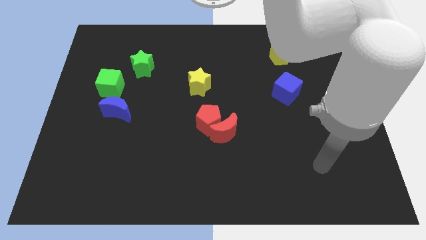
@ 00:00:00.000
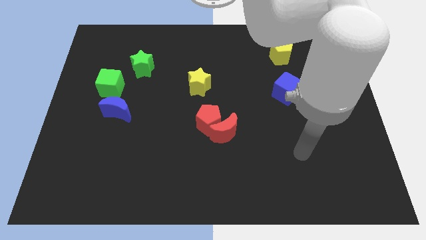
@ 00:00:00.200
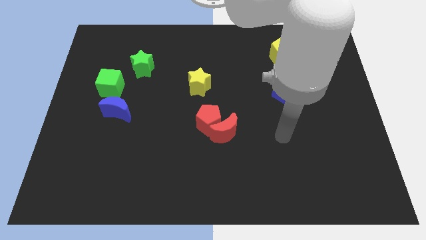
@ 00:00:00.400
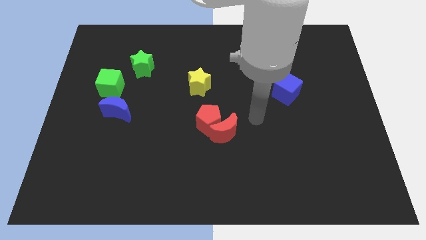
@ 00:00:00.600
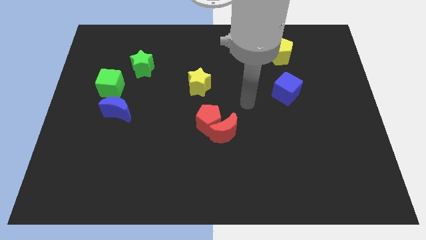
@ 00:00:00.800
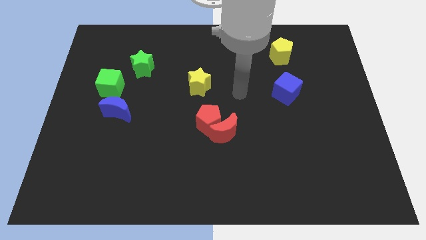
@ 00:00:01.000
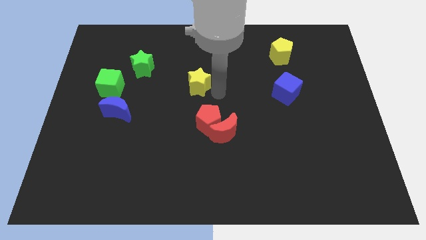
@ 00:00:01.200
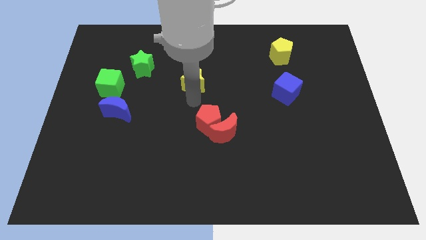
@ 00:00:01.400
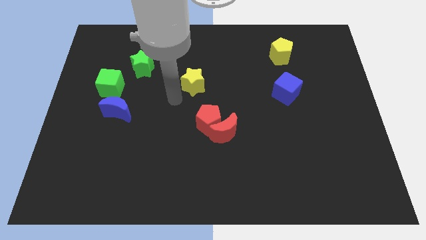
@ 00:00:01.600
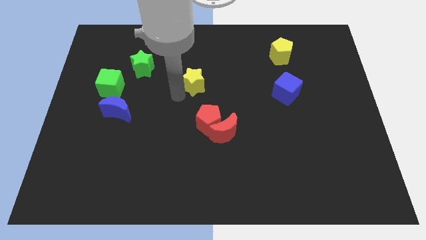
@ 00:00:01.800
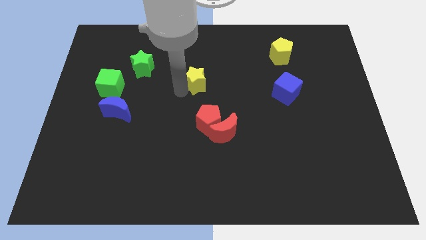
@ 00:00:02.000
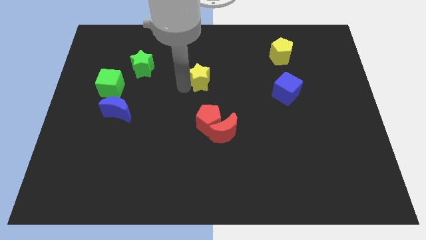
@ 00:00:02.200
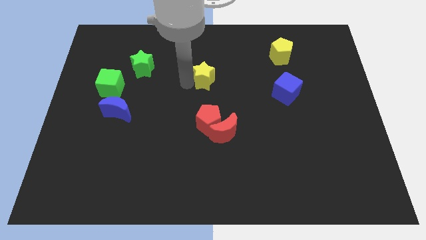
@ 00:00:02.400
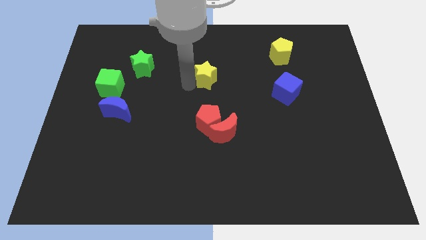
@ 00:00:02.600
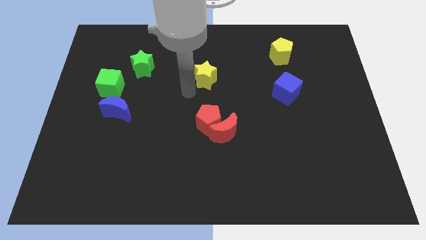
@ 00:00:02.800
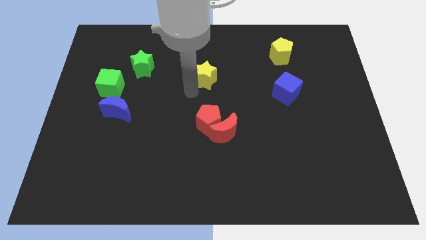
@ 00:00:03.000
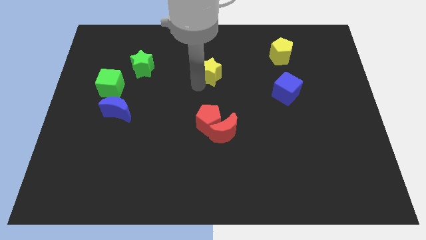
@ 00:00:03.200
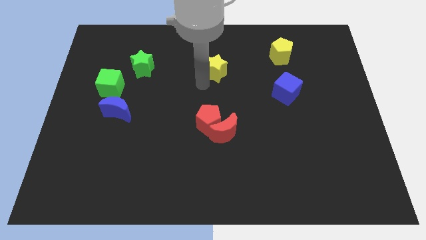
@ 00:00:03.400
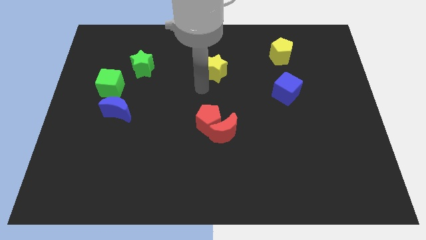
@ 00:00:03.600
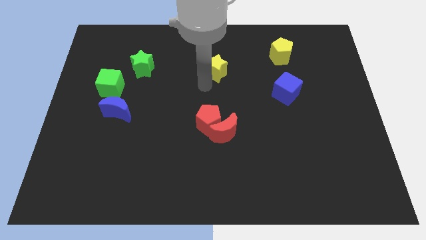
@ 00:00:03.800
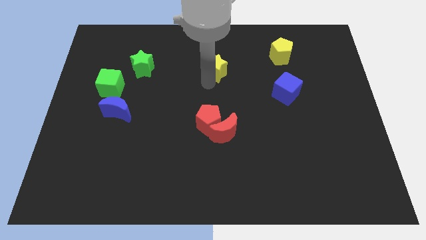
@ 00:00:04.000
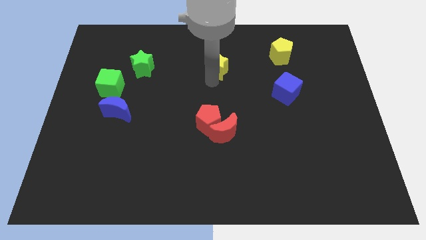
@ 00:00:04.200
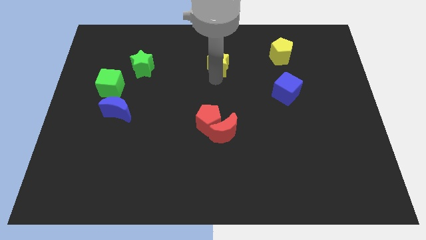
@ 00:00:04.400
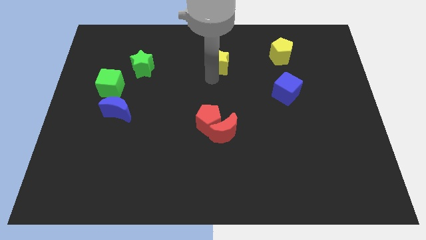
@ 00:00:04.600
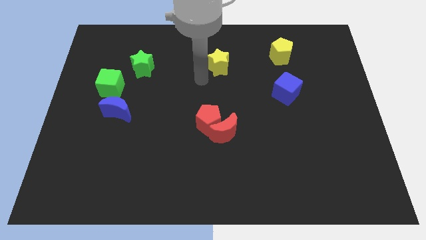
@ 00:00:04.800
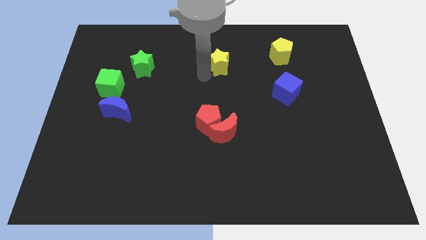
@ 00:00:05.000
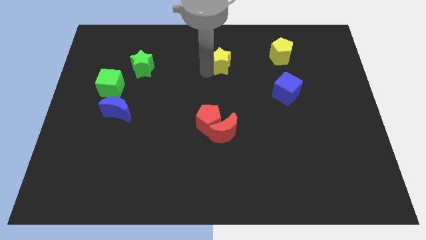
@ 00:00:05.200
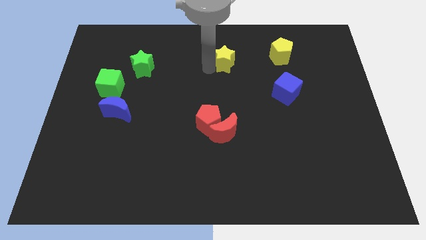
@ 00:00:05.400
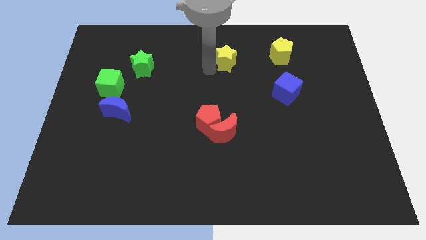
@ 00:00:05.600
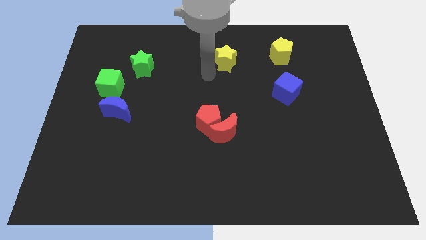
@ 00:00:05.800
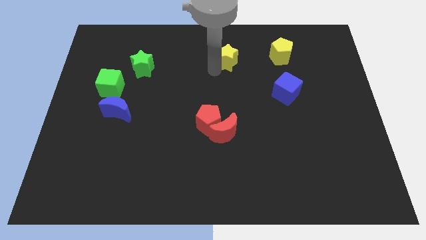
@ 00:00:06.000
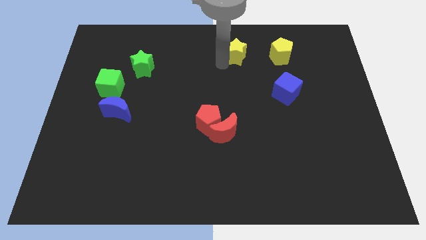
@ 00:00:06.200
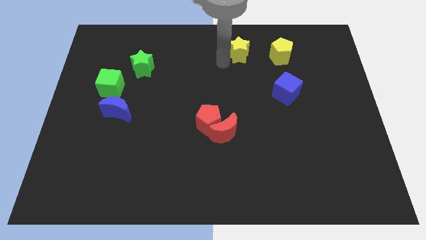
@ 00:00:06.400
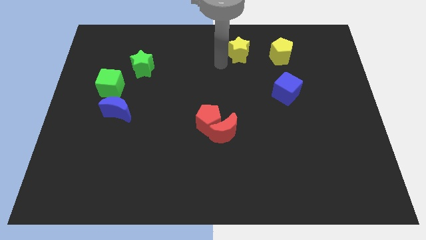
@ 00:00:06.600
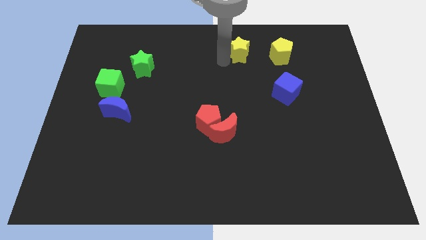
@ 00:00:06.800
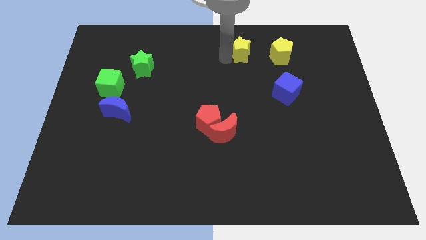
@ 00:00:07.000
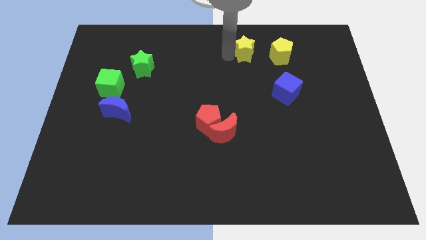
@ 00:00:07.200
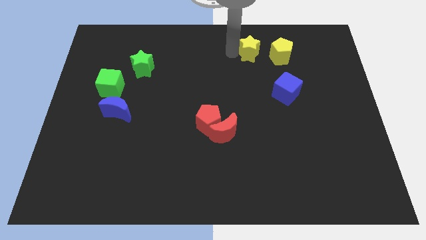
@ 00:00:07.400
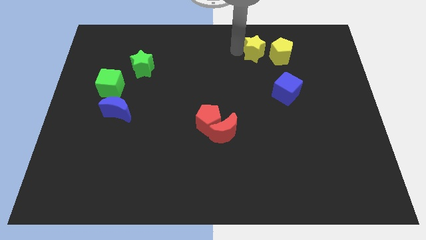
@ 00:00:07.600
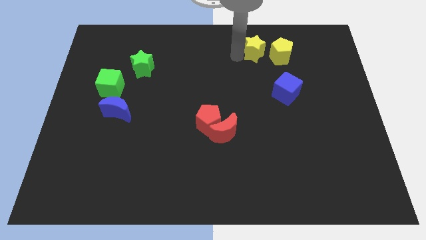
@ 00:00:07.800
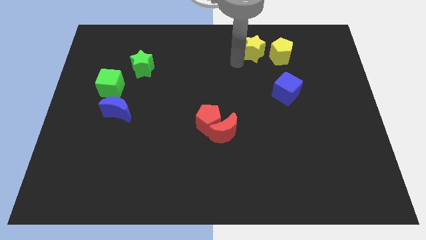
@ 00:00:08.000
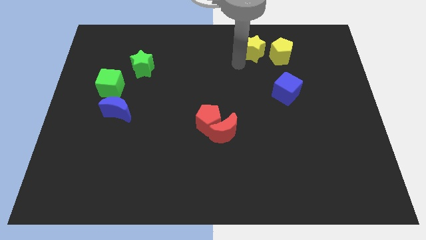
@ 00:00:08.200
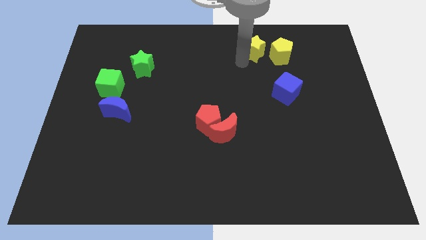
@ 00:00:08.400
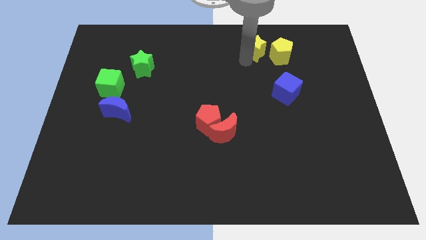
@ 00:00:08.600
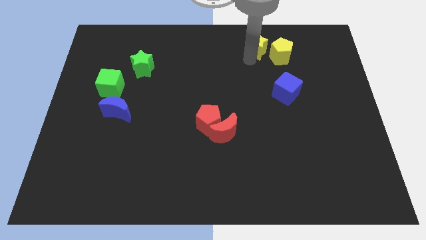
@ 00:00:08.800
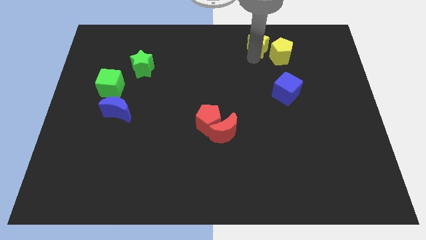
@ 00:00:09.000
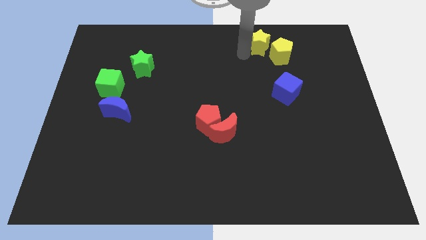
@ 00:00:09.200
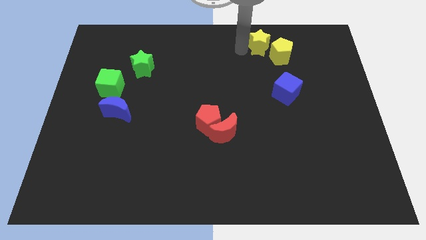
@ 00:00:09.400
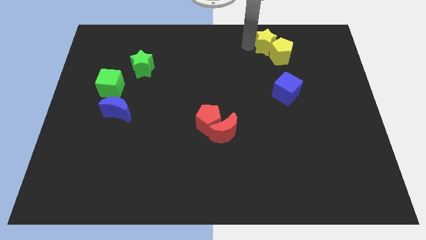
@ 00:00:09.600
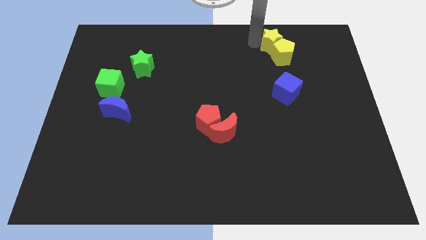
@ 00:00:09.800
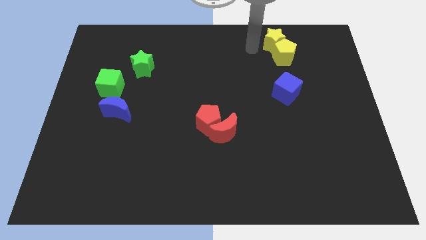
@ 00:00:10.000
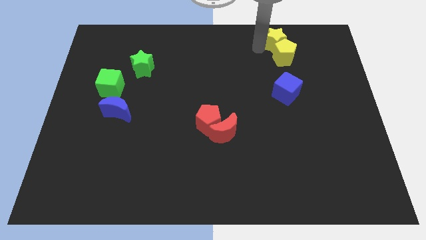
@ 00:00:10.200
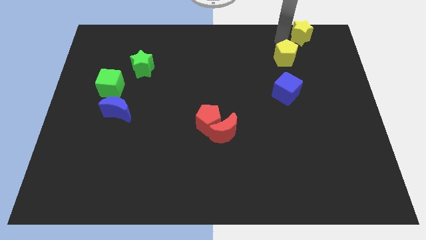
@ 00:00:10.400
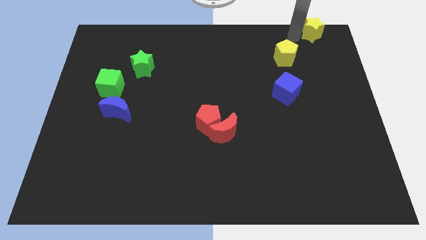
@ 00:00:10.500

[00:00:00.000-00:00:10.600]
push the yellow star to the top right of the board

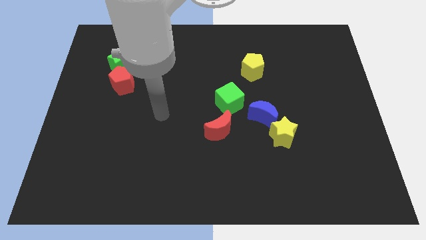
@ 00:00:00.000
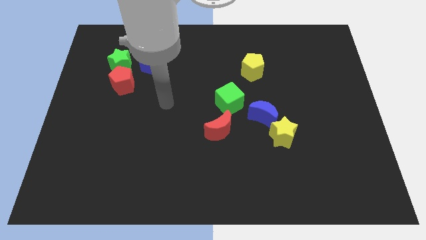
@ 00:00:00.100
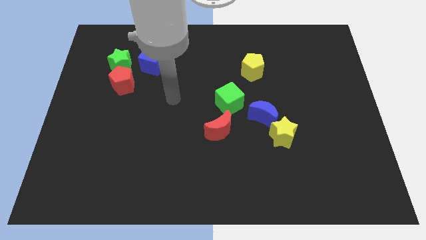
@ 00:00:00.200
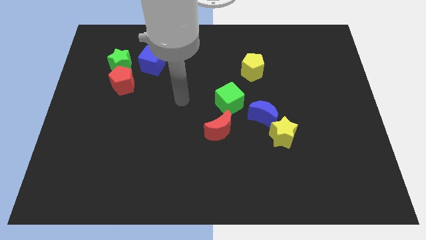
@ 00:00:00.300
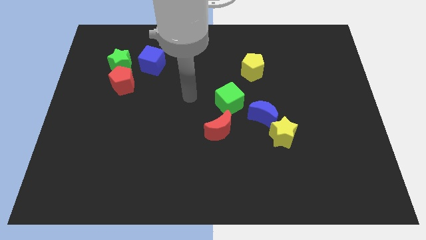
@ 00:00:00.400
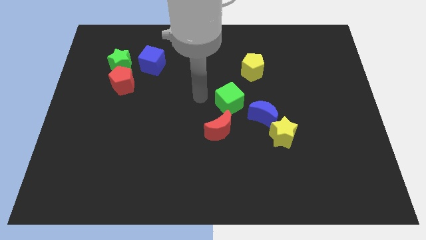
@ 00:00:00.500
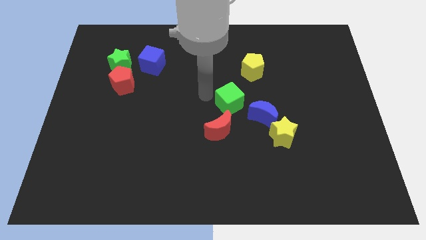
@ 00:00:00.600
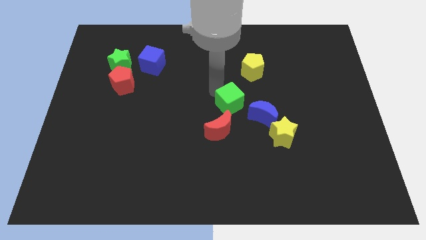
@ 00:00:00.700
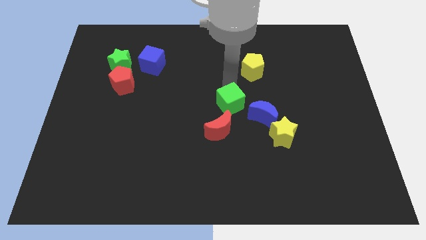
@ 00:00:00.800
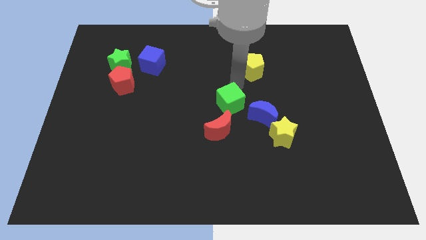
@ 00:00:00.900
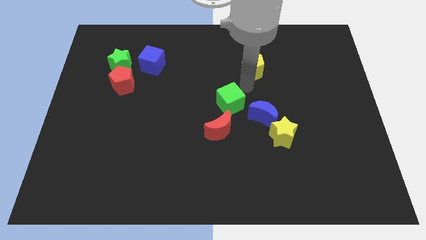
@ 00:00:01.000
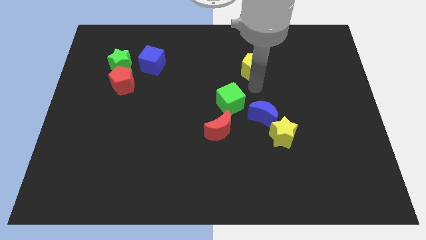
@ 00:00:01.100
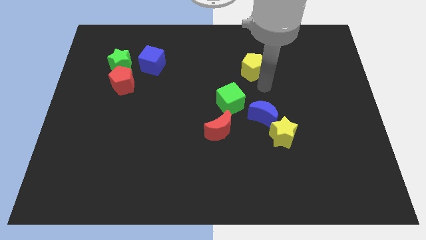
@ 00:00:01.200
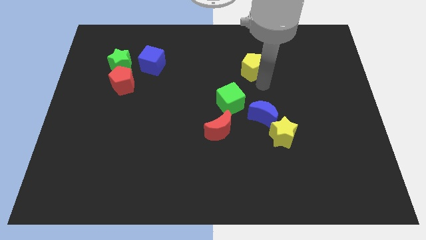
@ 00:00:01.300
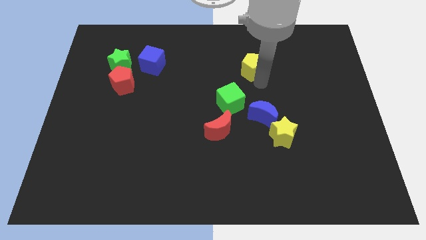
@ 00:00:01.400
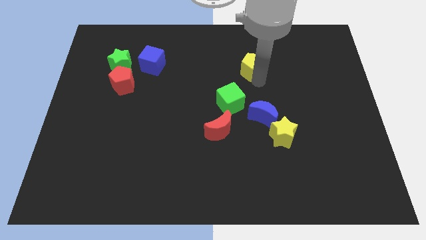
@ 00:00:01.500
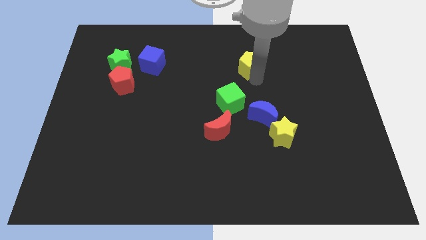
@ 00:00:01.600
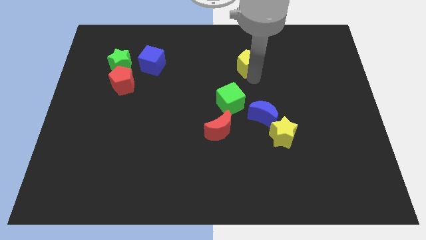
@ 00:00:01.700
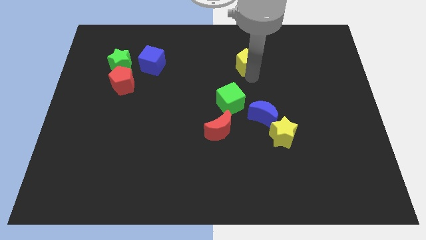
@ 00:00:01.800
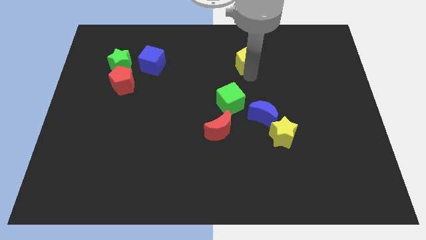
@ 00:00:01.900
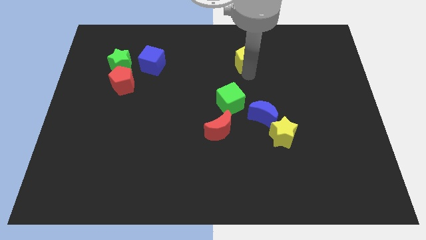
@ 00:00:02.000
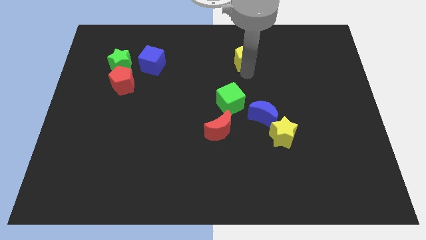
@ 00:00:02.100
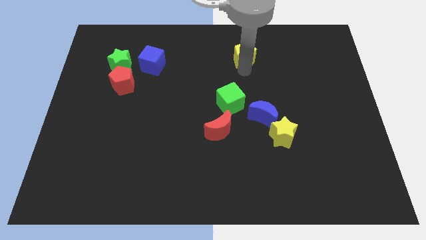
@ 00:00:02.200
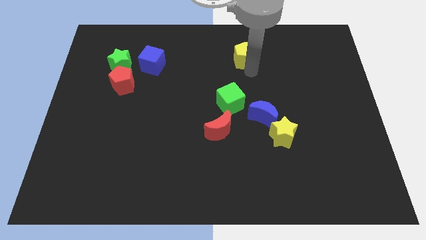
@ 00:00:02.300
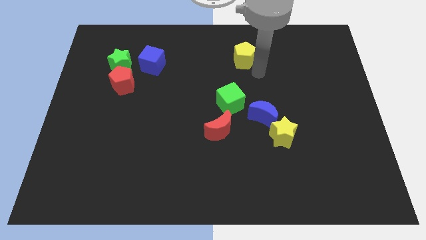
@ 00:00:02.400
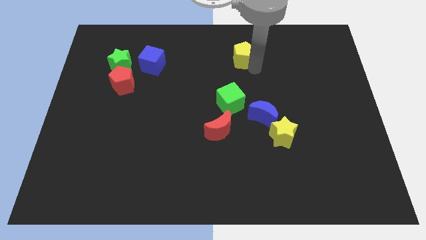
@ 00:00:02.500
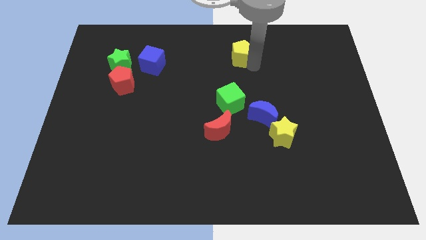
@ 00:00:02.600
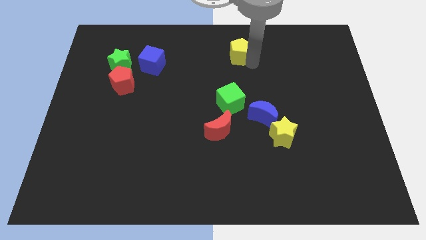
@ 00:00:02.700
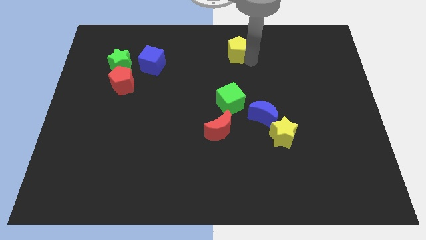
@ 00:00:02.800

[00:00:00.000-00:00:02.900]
push the yellow pentagon to the top
